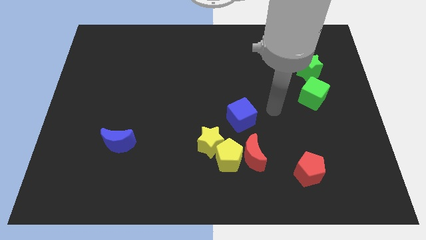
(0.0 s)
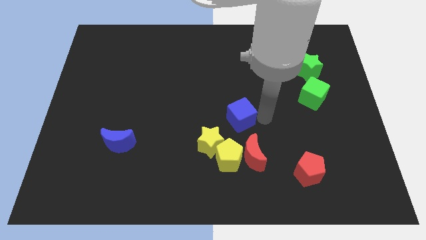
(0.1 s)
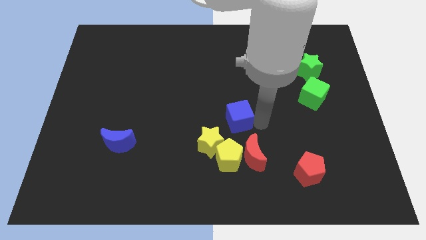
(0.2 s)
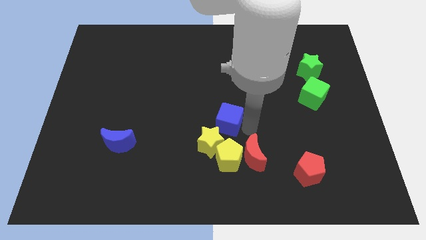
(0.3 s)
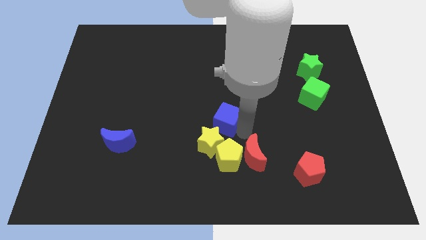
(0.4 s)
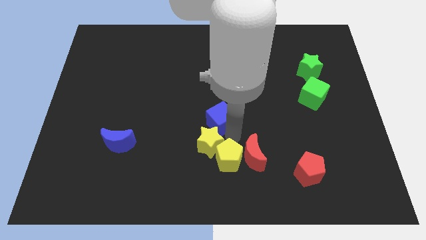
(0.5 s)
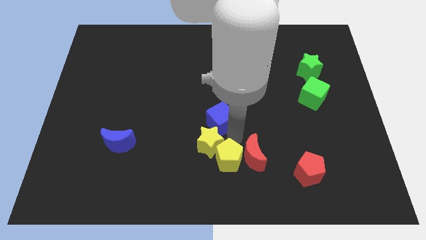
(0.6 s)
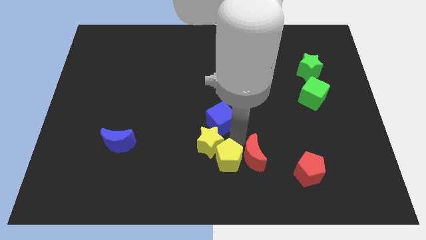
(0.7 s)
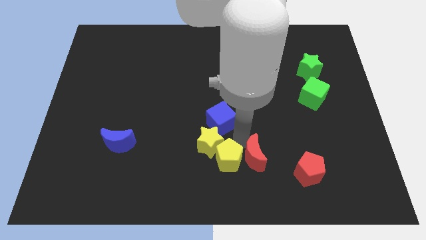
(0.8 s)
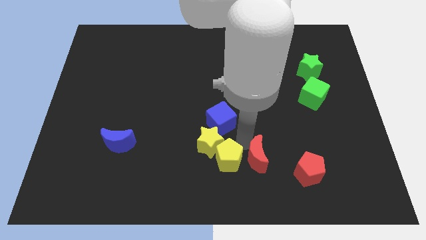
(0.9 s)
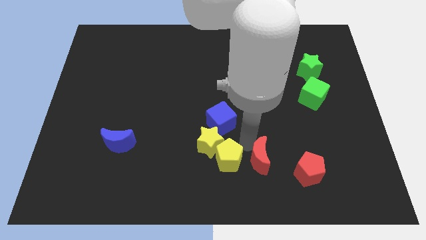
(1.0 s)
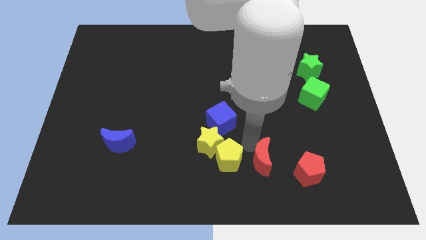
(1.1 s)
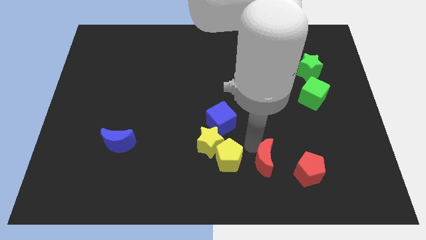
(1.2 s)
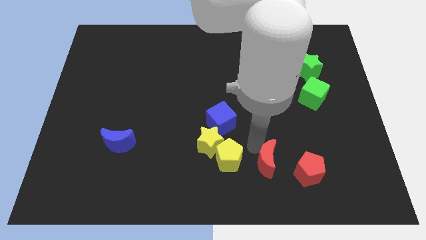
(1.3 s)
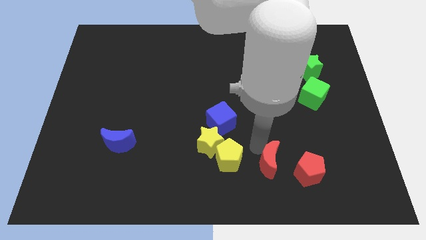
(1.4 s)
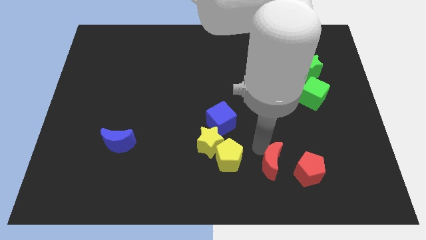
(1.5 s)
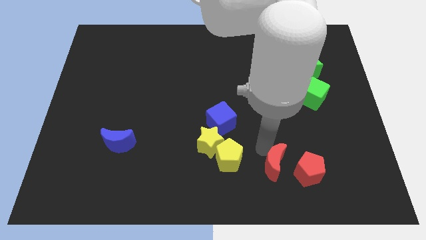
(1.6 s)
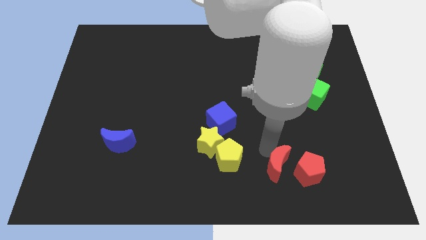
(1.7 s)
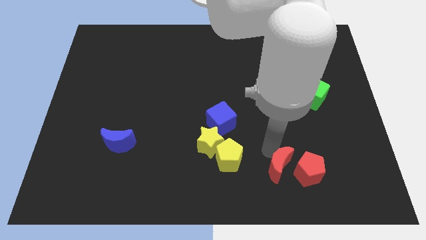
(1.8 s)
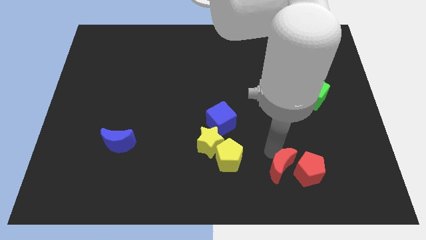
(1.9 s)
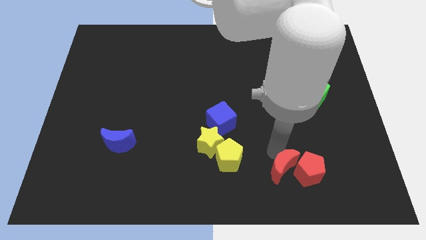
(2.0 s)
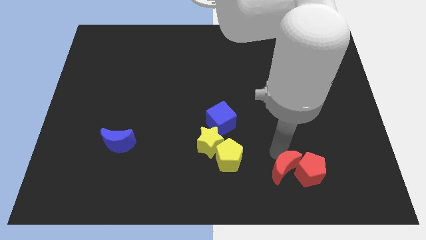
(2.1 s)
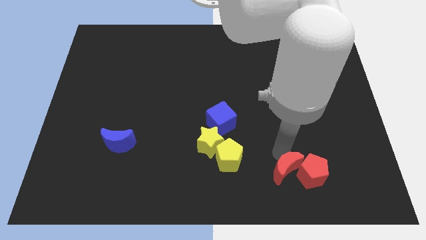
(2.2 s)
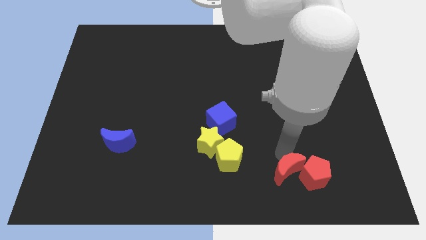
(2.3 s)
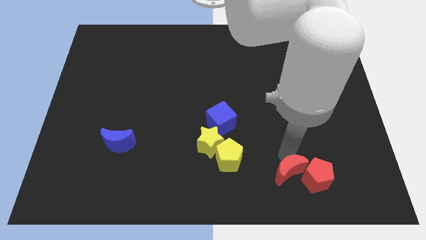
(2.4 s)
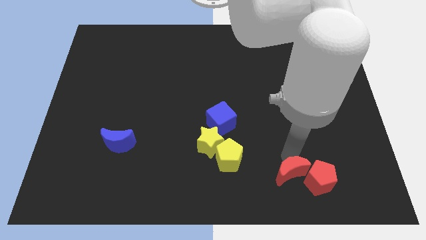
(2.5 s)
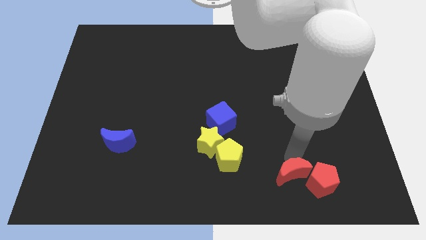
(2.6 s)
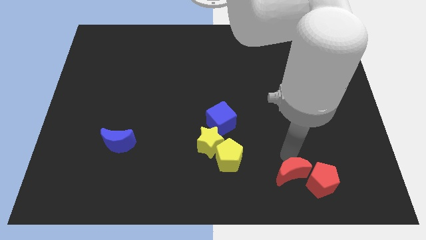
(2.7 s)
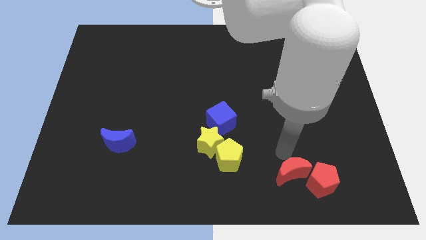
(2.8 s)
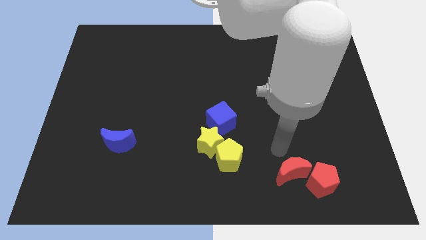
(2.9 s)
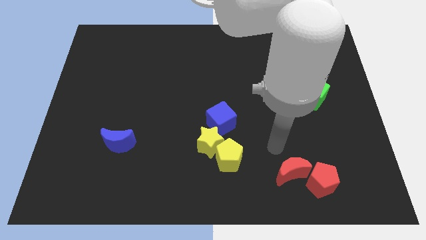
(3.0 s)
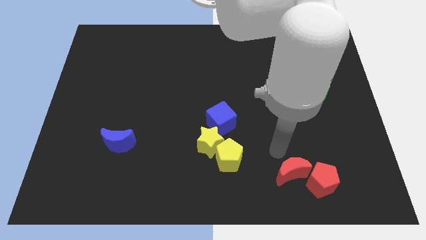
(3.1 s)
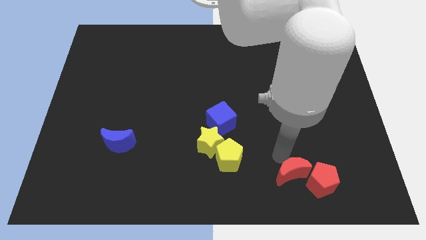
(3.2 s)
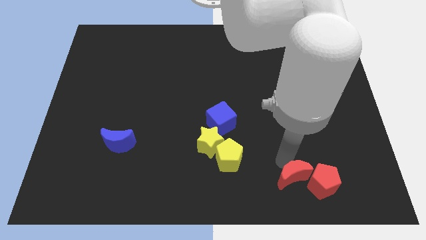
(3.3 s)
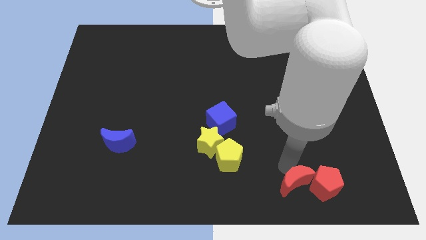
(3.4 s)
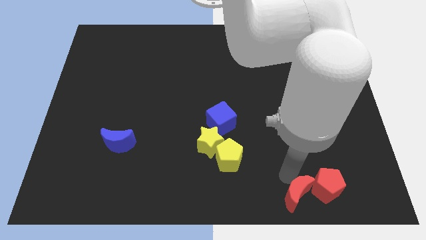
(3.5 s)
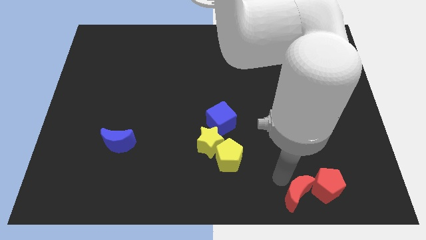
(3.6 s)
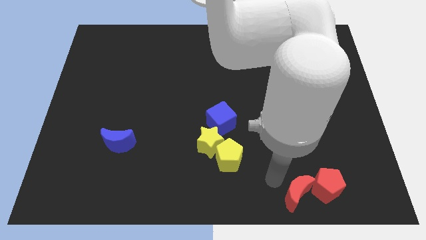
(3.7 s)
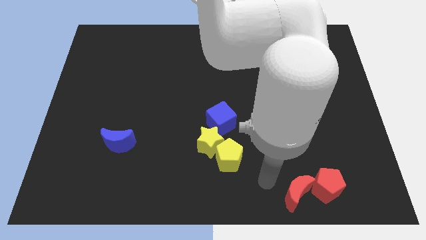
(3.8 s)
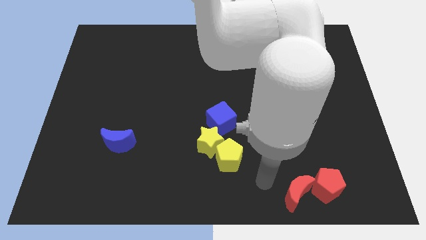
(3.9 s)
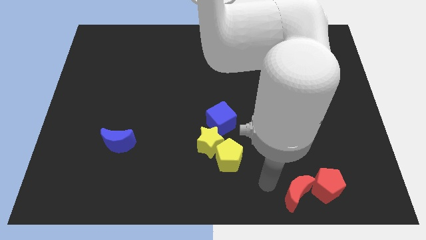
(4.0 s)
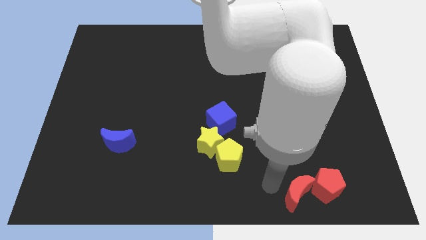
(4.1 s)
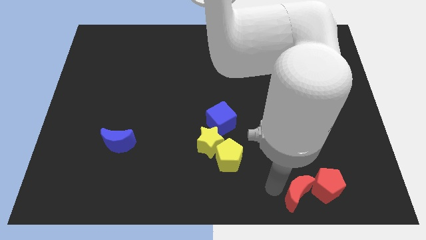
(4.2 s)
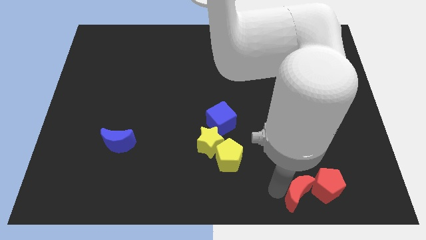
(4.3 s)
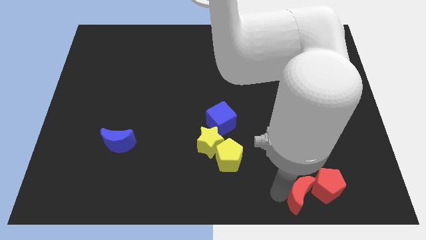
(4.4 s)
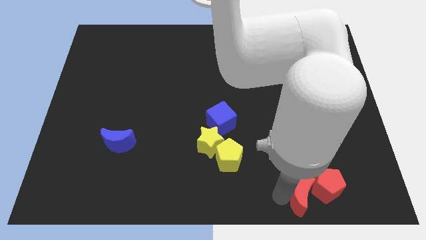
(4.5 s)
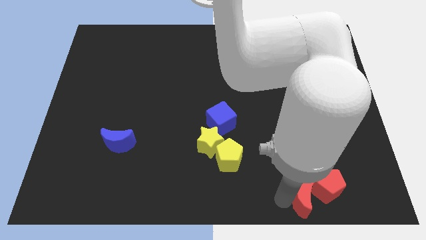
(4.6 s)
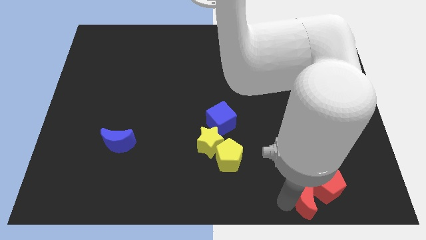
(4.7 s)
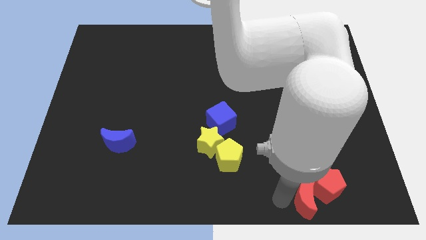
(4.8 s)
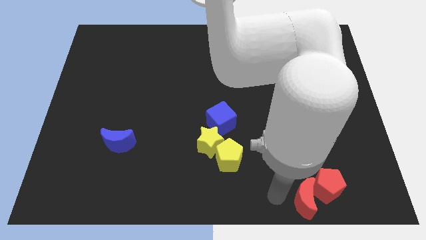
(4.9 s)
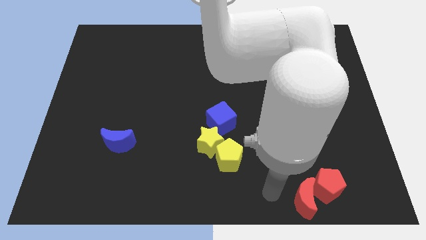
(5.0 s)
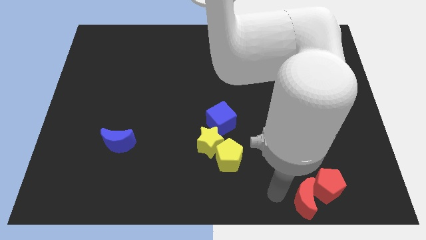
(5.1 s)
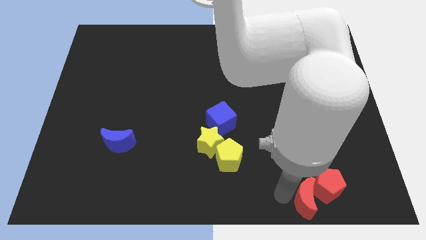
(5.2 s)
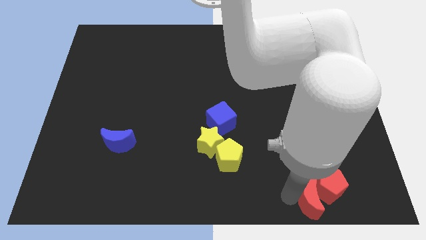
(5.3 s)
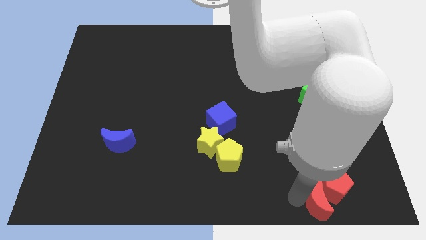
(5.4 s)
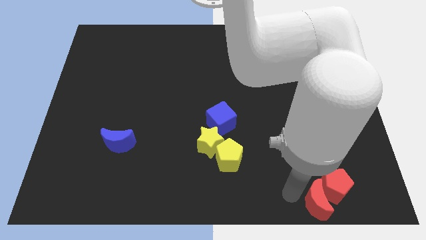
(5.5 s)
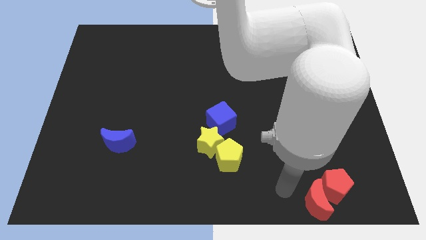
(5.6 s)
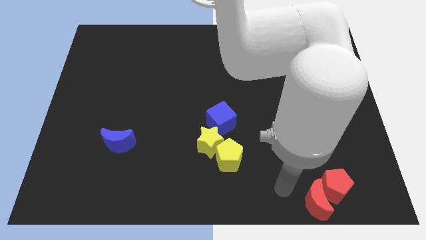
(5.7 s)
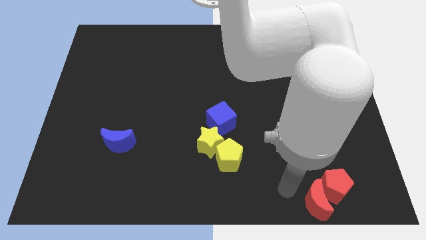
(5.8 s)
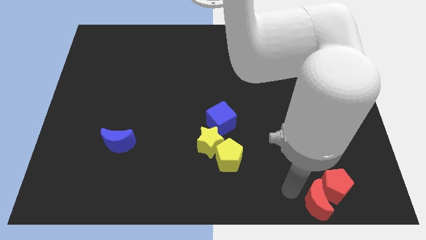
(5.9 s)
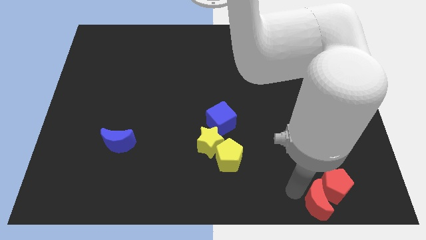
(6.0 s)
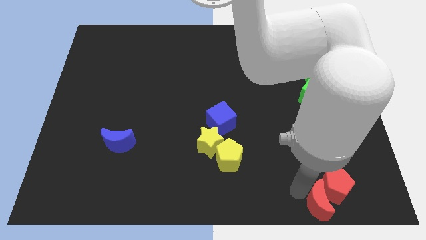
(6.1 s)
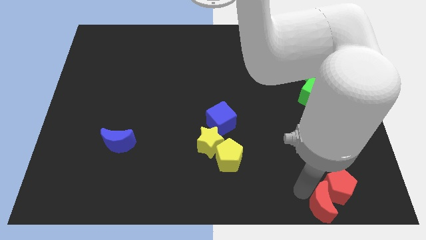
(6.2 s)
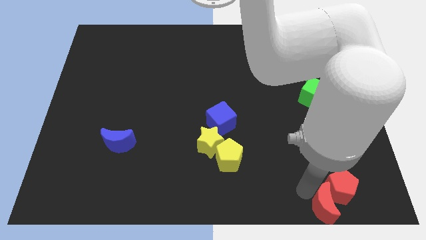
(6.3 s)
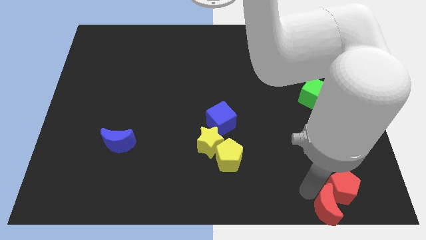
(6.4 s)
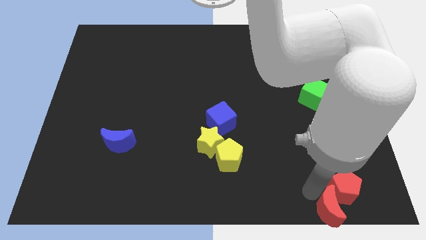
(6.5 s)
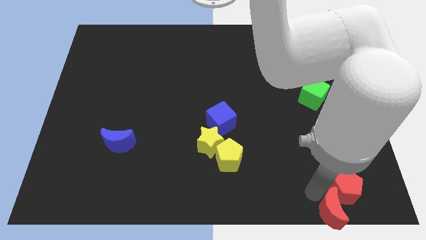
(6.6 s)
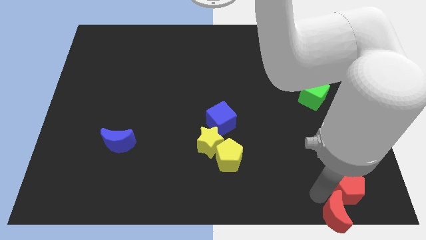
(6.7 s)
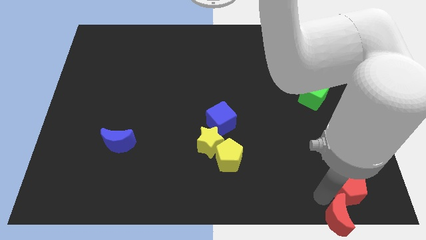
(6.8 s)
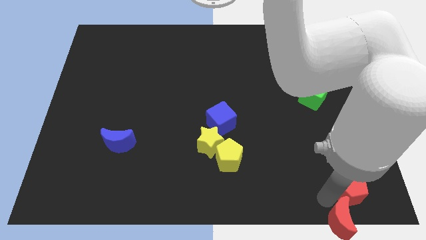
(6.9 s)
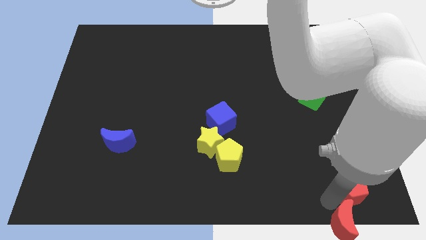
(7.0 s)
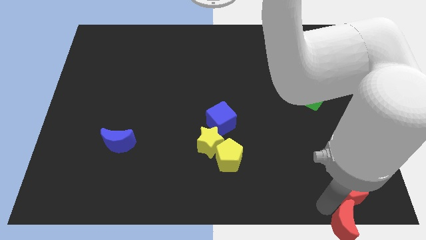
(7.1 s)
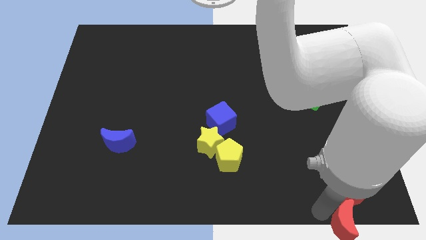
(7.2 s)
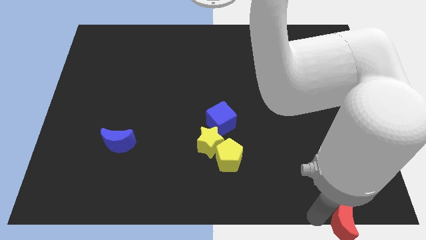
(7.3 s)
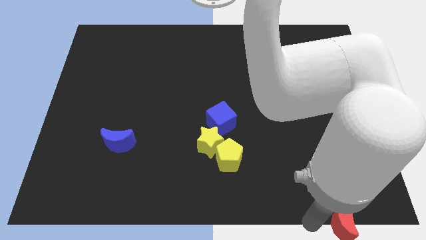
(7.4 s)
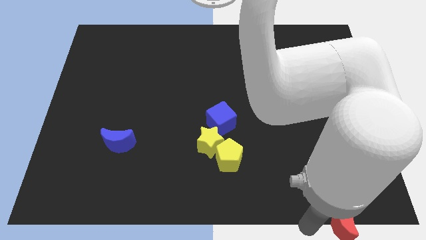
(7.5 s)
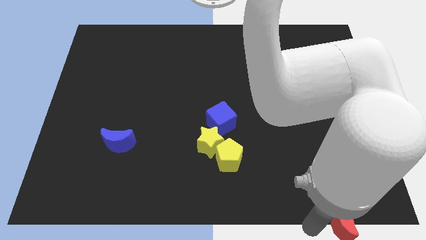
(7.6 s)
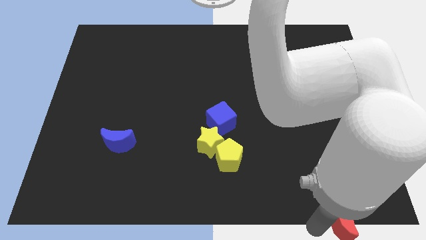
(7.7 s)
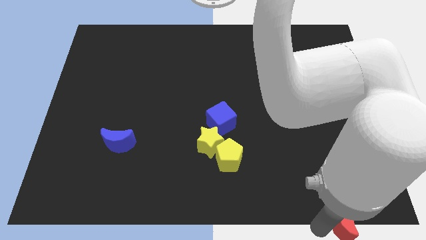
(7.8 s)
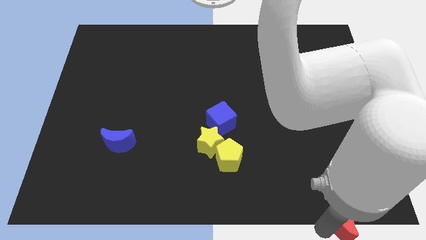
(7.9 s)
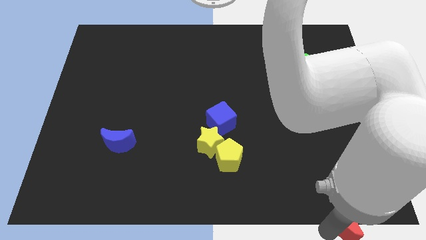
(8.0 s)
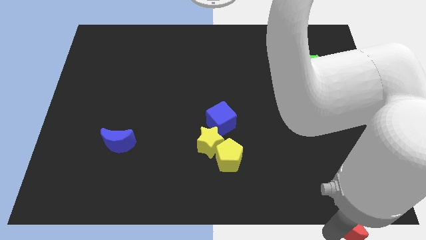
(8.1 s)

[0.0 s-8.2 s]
push the red moon to the bottom right
